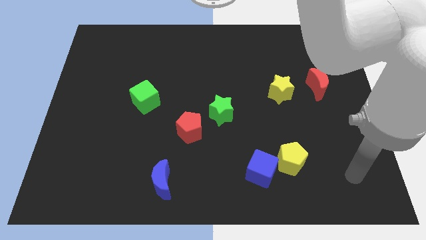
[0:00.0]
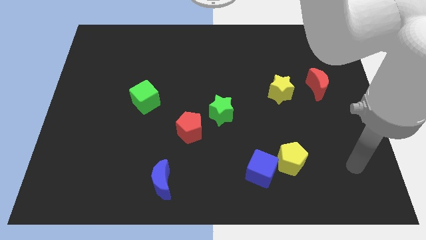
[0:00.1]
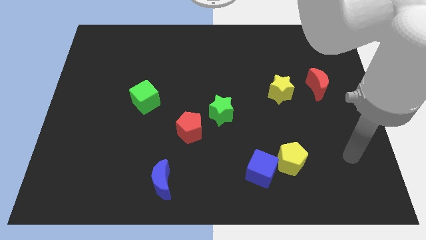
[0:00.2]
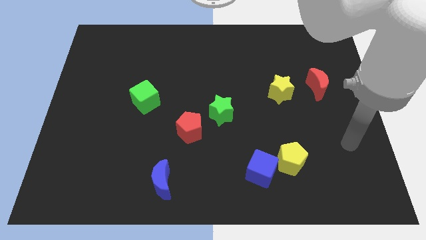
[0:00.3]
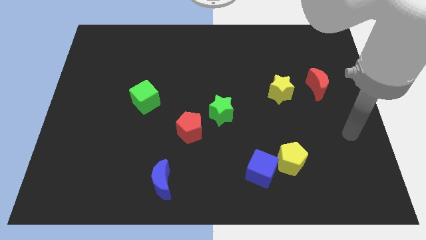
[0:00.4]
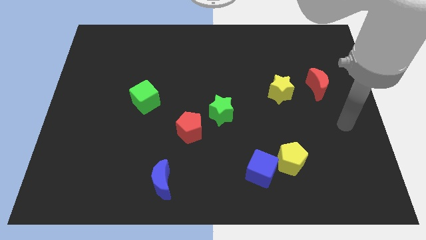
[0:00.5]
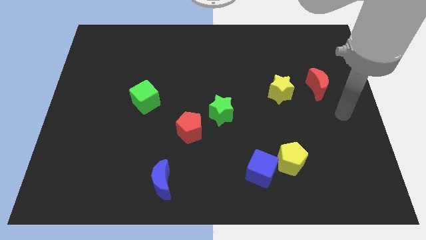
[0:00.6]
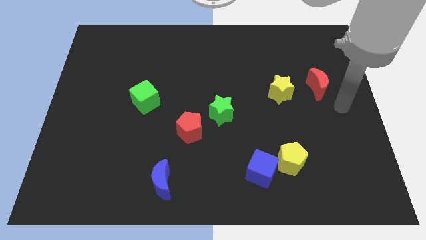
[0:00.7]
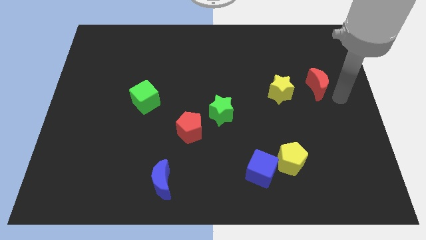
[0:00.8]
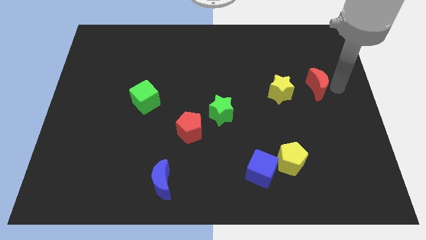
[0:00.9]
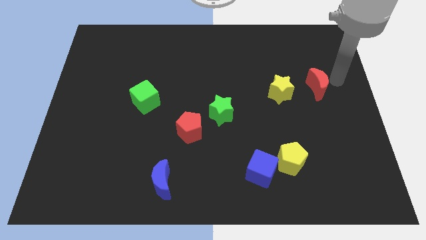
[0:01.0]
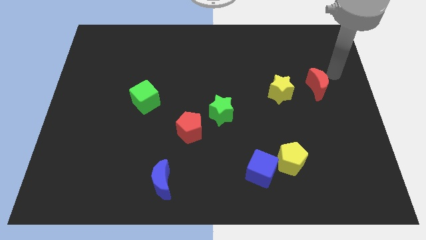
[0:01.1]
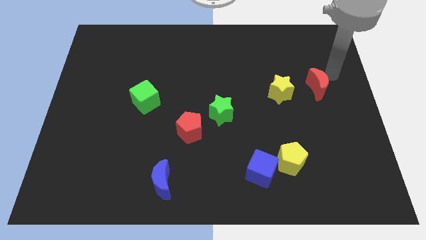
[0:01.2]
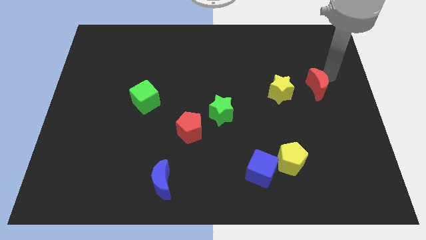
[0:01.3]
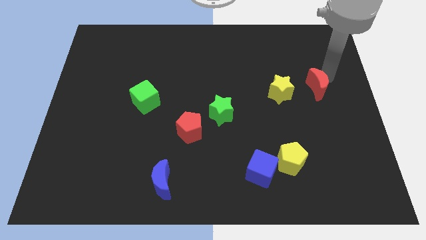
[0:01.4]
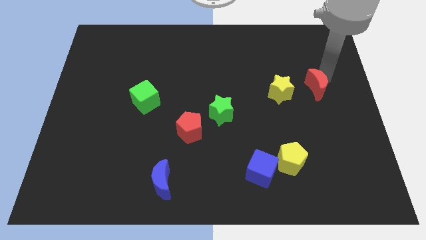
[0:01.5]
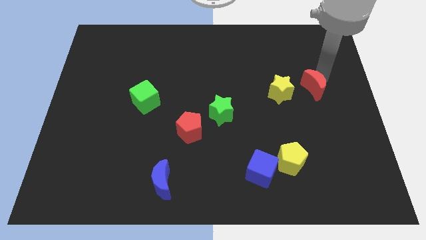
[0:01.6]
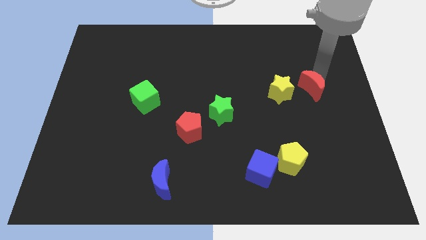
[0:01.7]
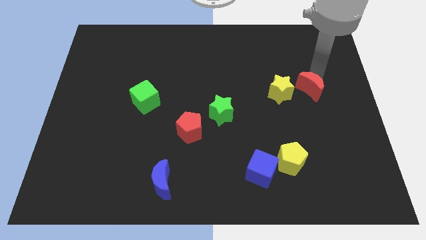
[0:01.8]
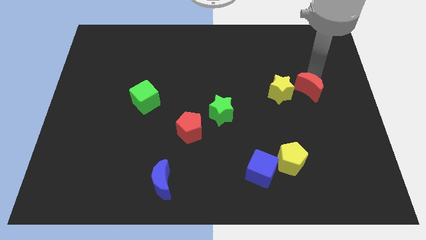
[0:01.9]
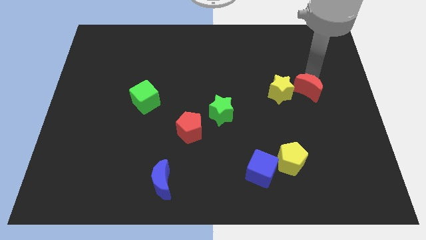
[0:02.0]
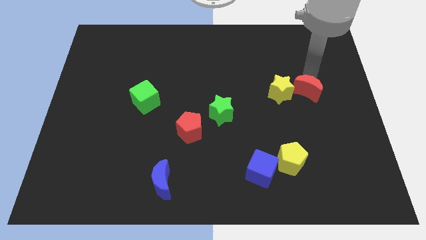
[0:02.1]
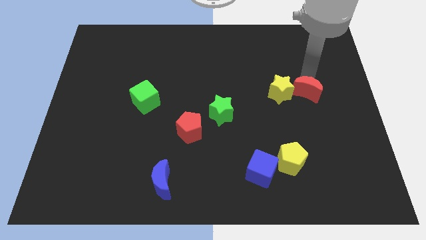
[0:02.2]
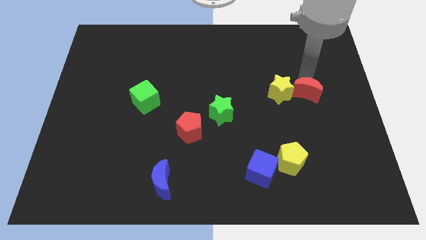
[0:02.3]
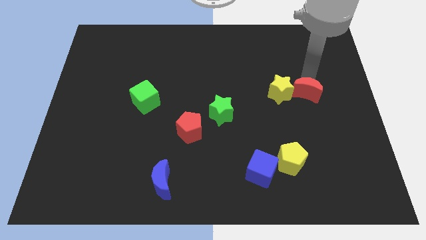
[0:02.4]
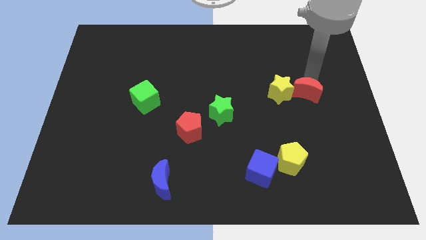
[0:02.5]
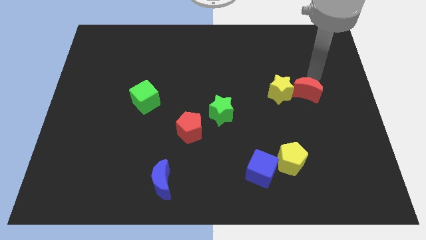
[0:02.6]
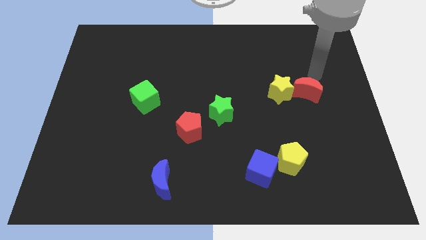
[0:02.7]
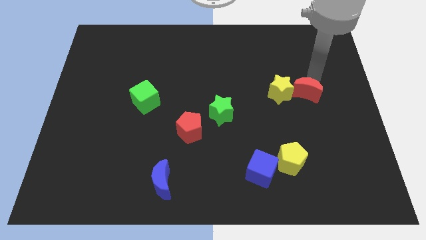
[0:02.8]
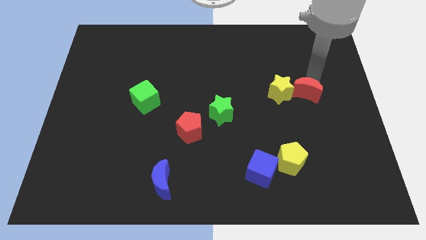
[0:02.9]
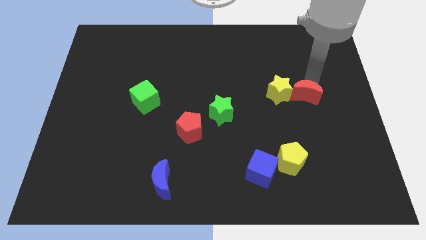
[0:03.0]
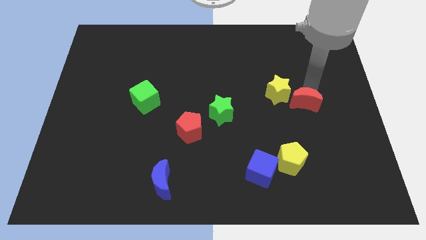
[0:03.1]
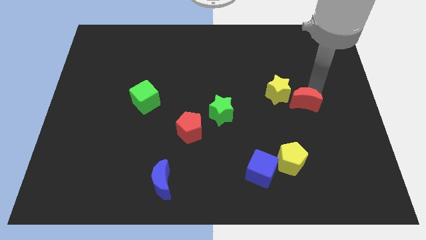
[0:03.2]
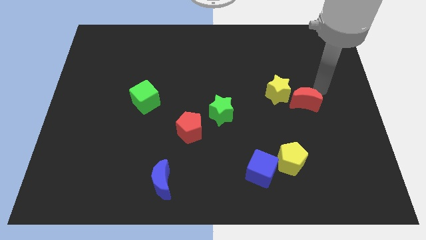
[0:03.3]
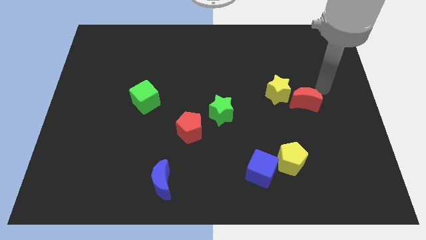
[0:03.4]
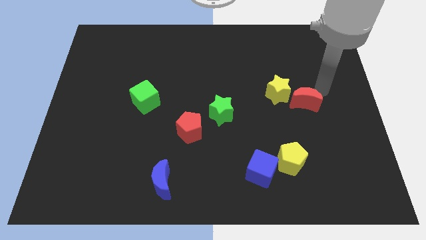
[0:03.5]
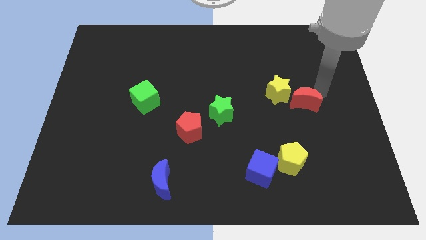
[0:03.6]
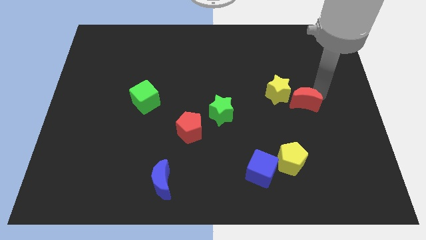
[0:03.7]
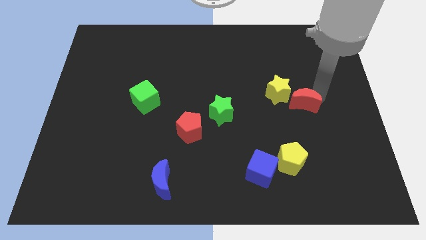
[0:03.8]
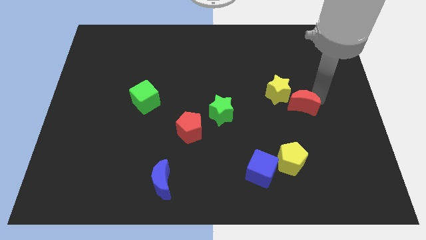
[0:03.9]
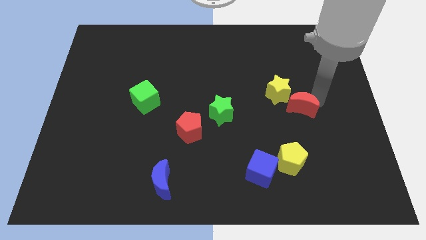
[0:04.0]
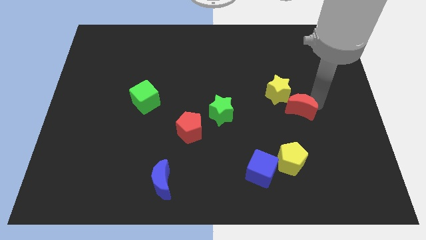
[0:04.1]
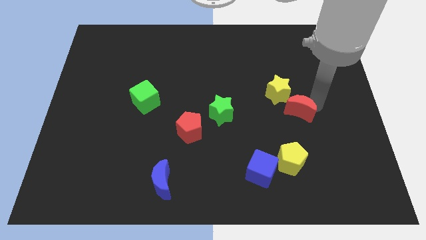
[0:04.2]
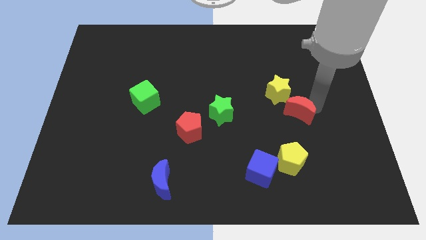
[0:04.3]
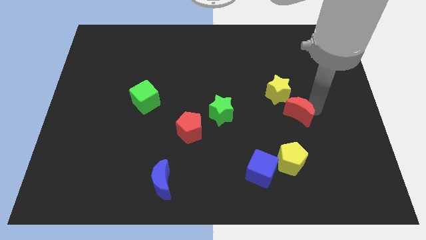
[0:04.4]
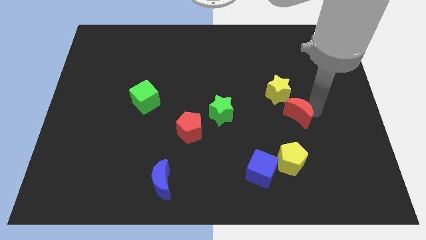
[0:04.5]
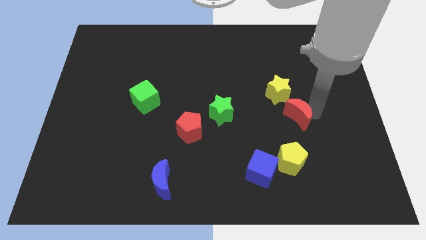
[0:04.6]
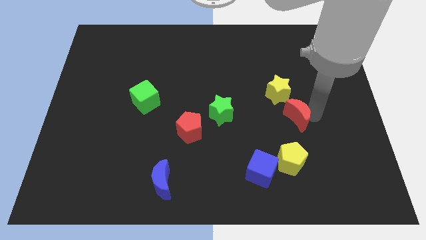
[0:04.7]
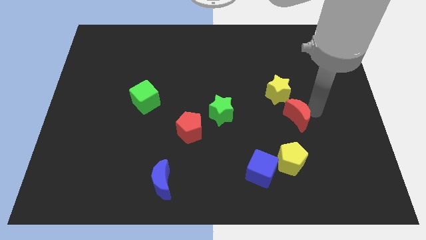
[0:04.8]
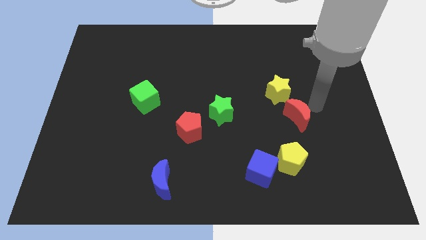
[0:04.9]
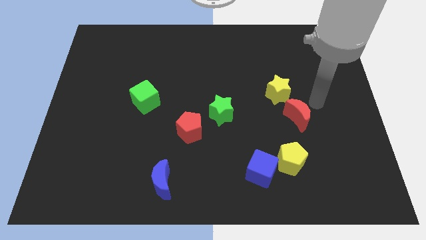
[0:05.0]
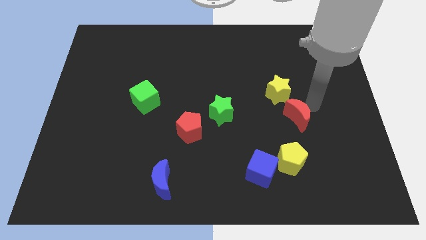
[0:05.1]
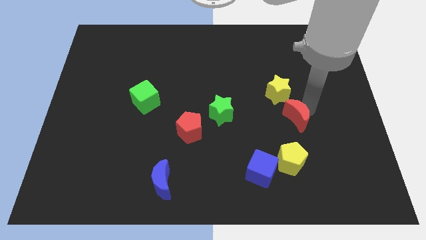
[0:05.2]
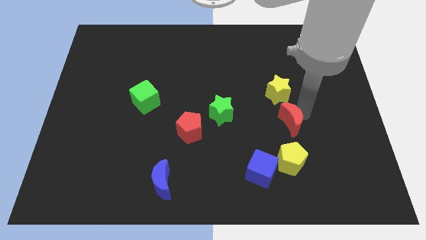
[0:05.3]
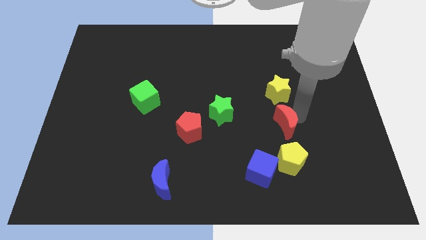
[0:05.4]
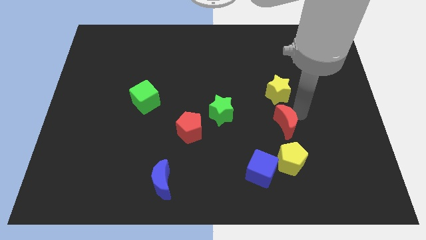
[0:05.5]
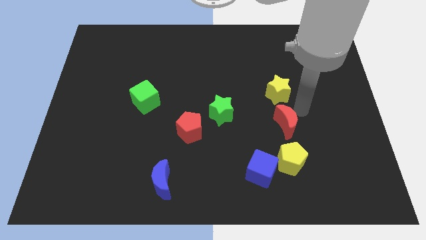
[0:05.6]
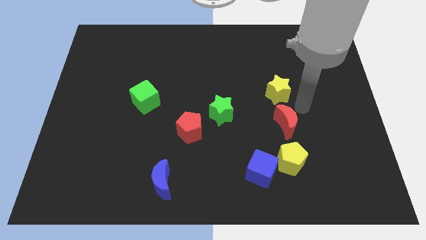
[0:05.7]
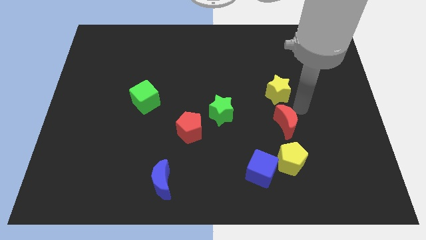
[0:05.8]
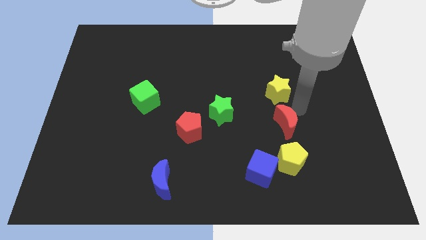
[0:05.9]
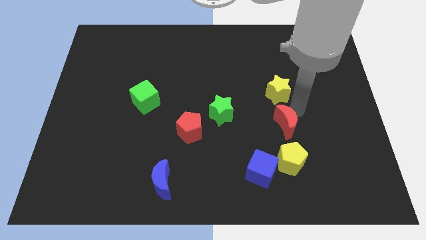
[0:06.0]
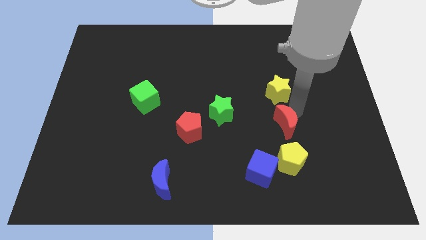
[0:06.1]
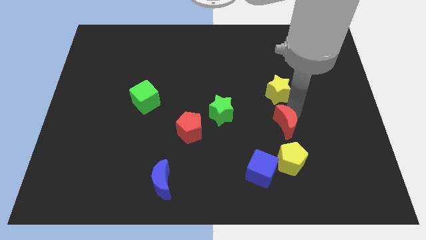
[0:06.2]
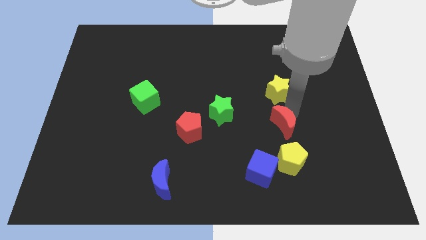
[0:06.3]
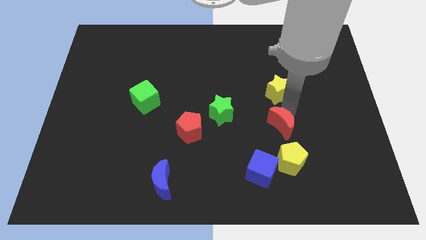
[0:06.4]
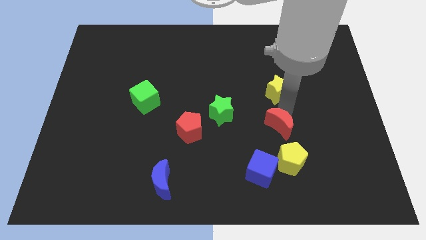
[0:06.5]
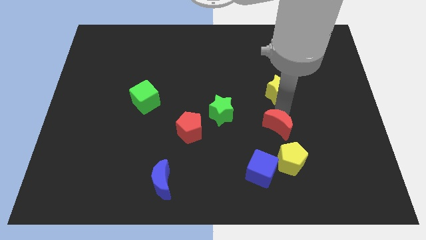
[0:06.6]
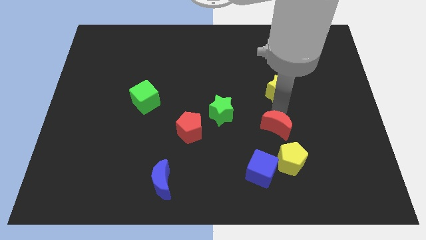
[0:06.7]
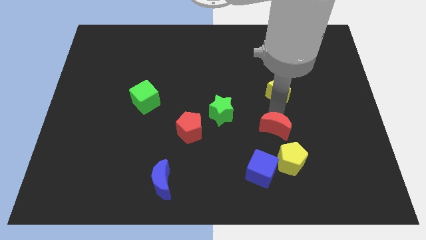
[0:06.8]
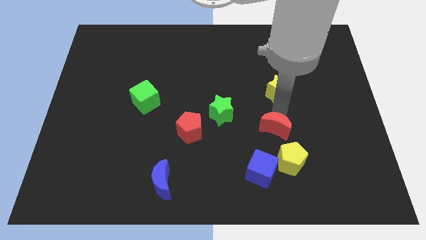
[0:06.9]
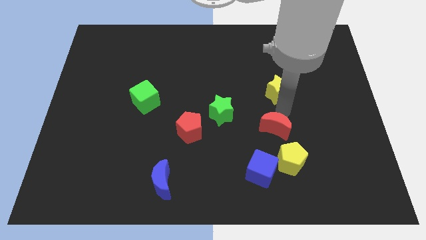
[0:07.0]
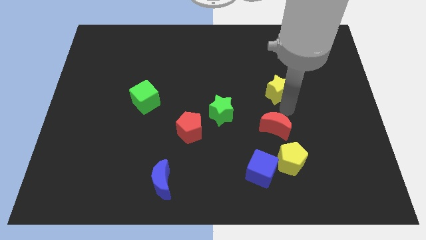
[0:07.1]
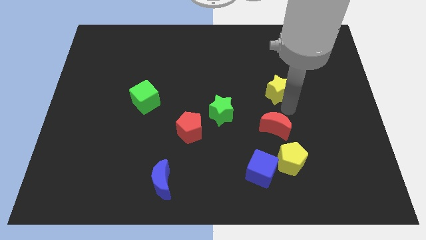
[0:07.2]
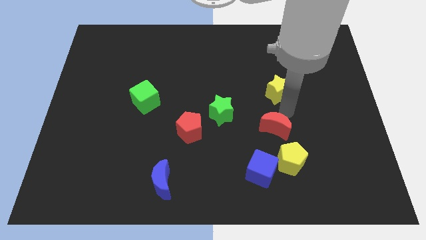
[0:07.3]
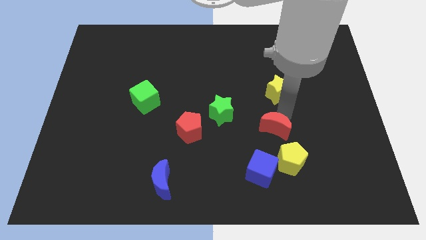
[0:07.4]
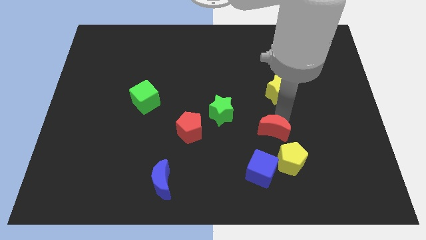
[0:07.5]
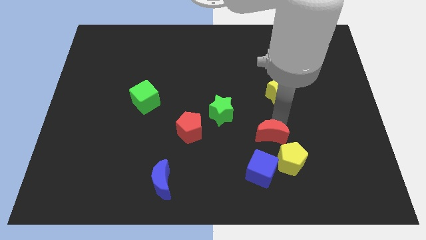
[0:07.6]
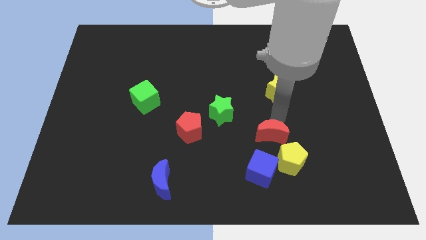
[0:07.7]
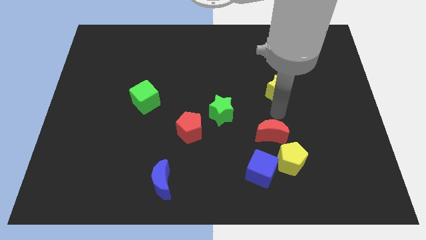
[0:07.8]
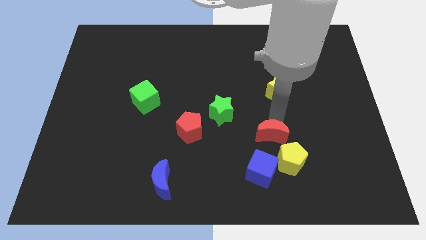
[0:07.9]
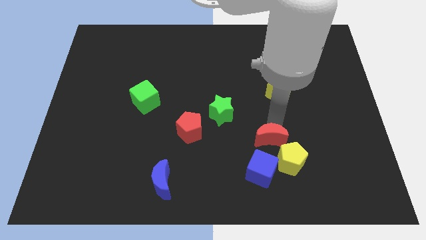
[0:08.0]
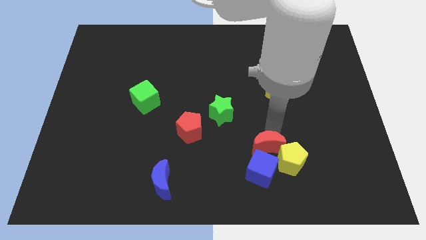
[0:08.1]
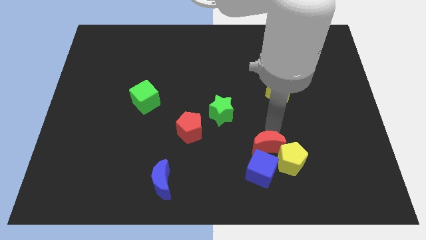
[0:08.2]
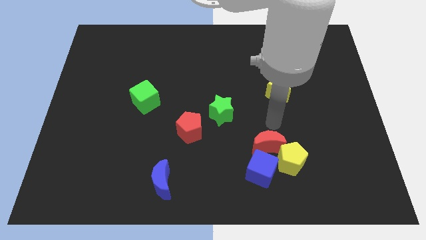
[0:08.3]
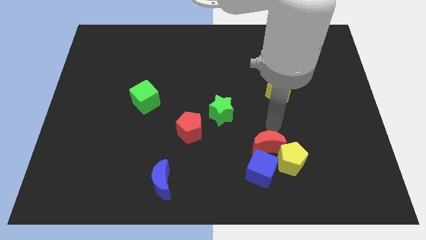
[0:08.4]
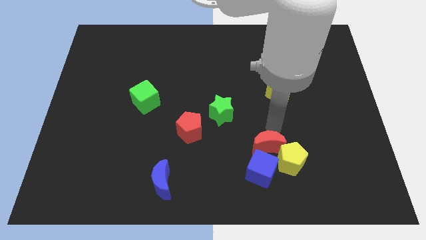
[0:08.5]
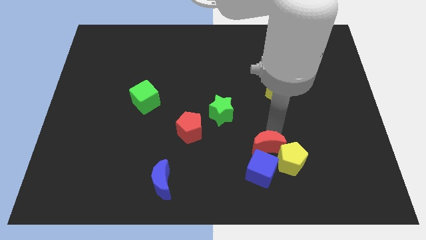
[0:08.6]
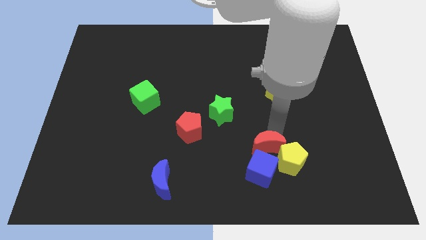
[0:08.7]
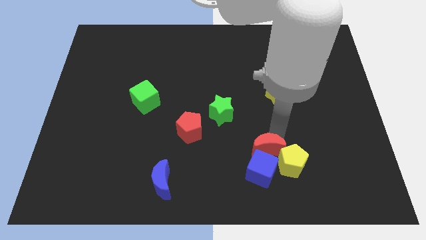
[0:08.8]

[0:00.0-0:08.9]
move the red moon close to the blue cube
